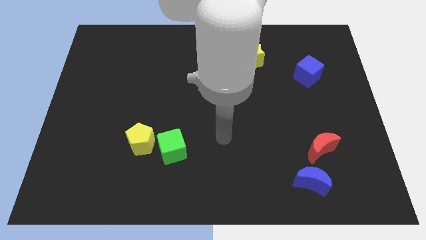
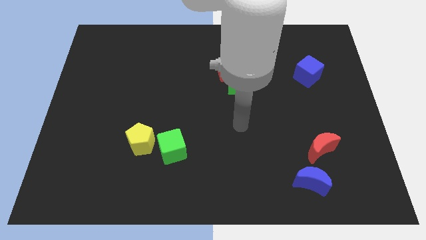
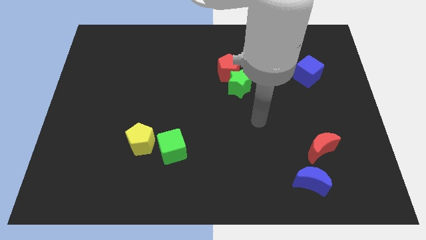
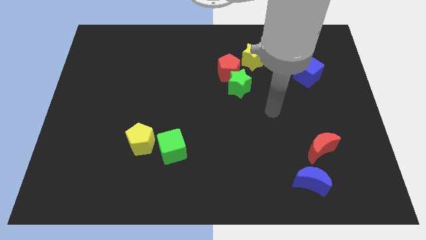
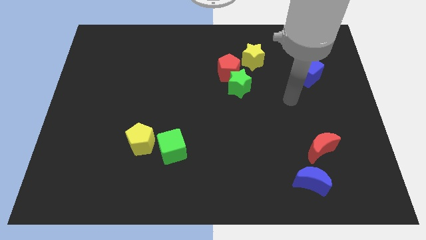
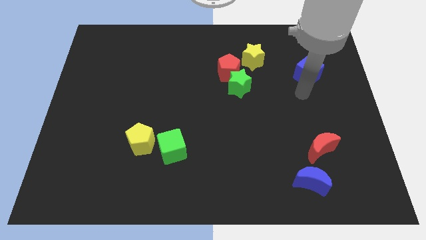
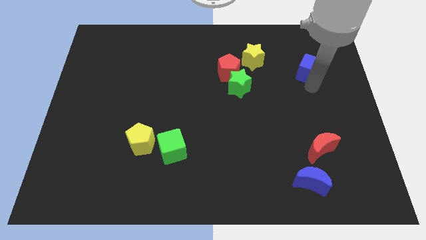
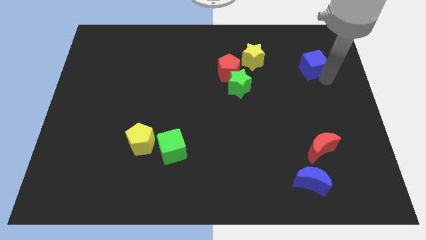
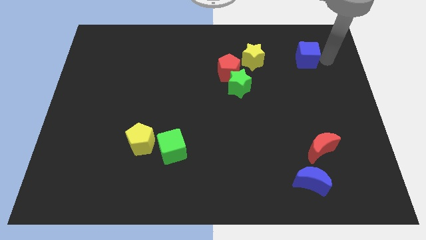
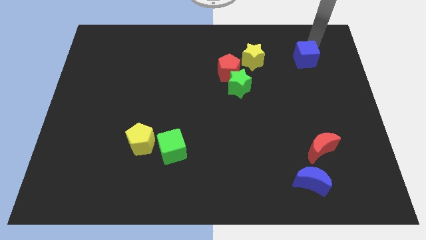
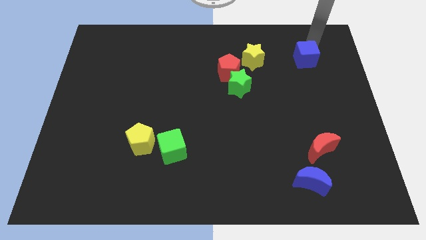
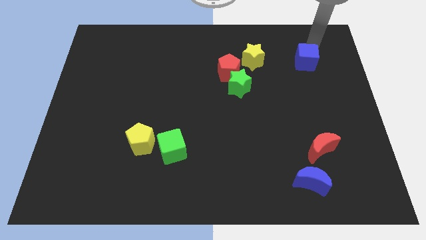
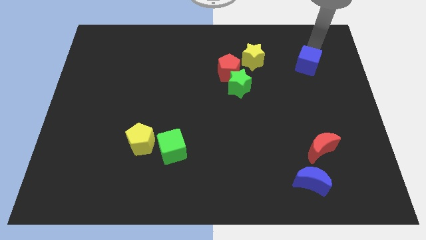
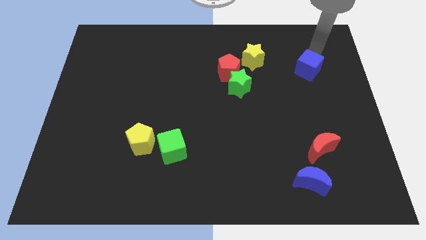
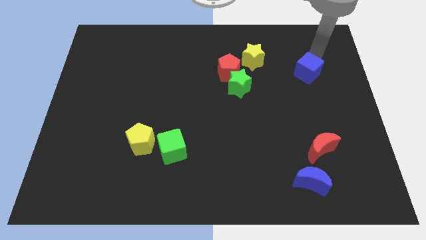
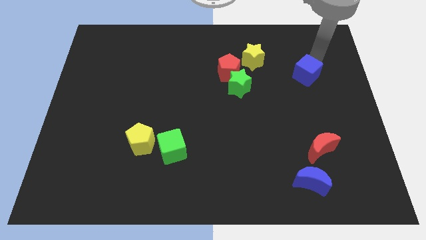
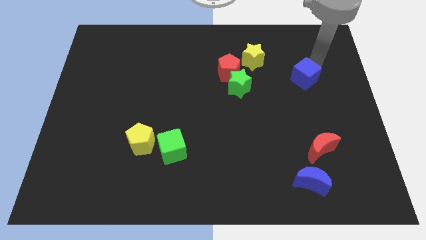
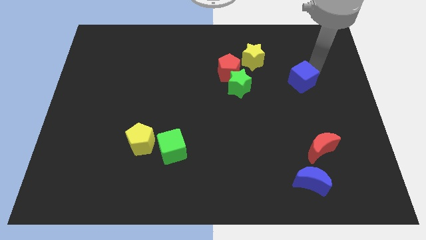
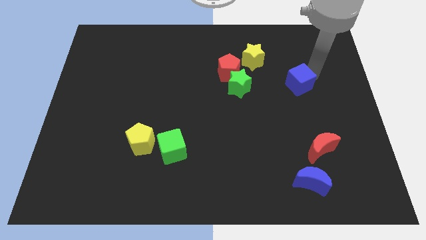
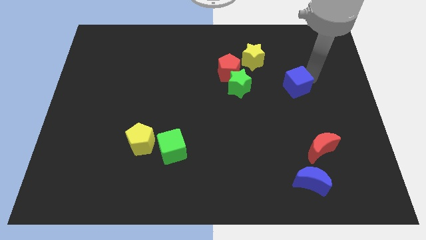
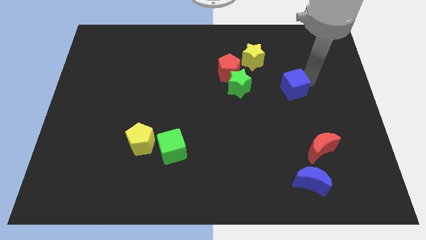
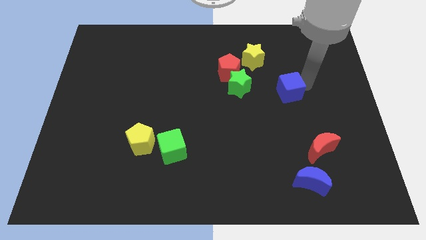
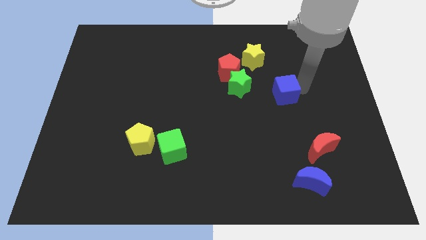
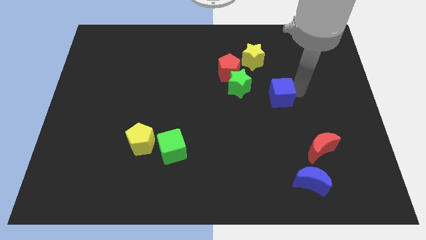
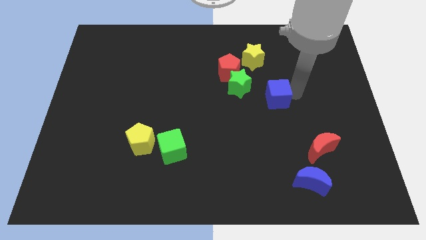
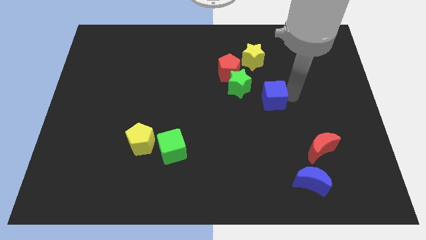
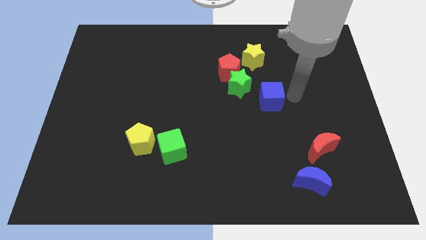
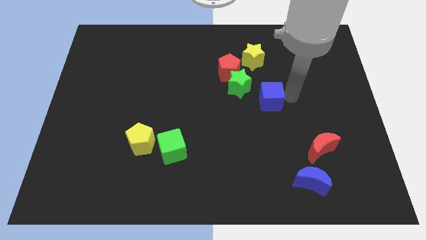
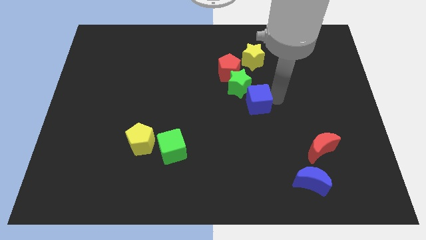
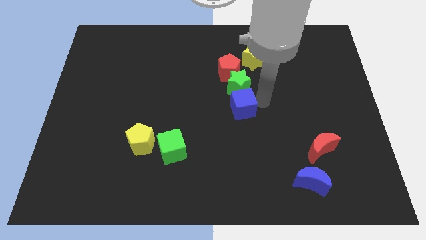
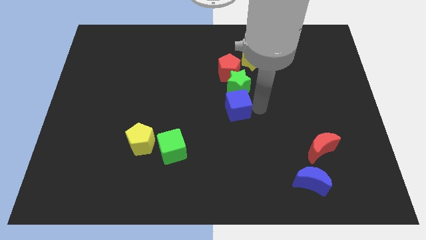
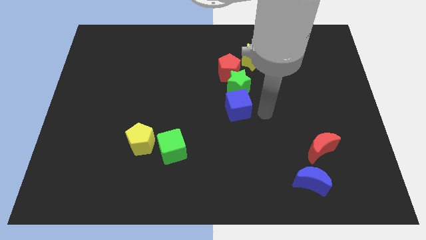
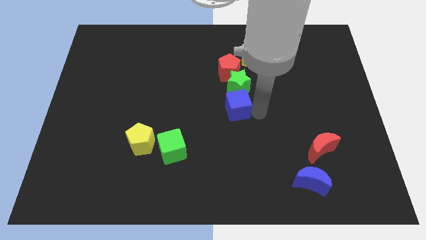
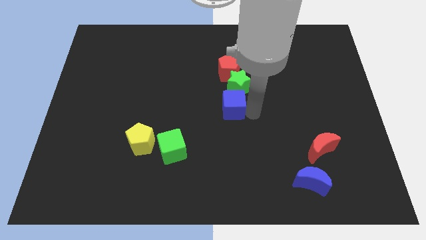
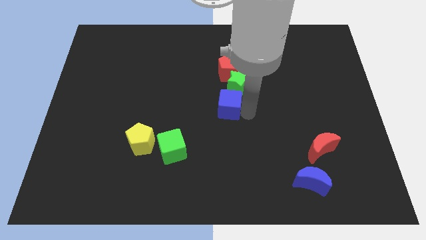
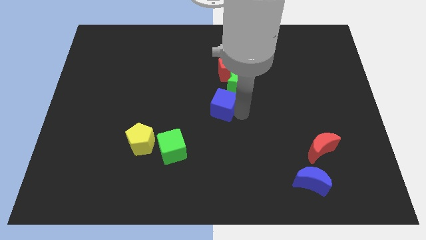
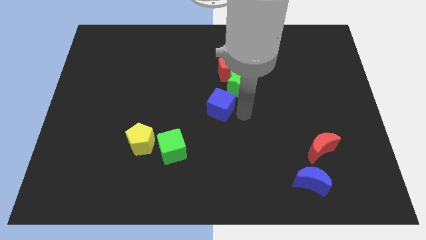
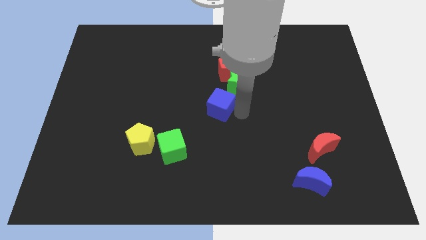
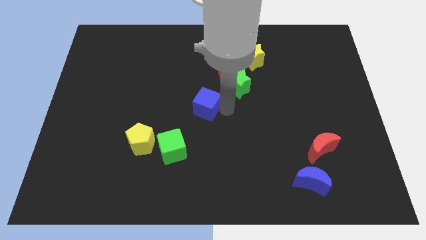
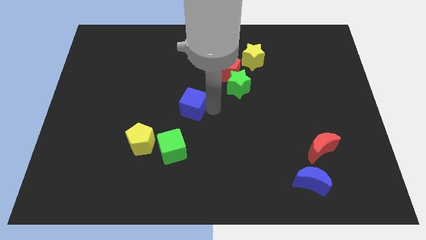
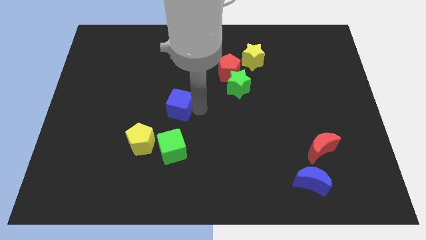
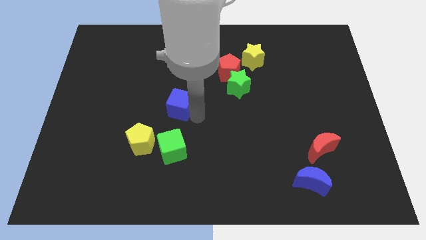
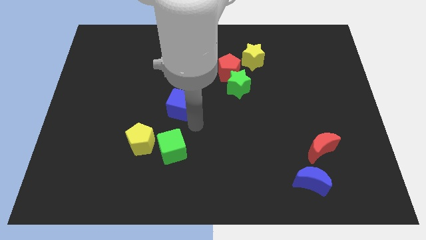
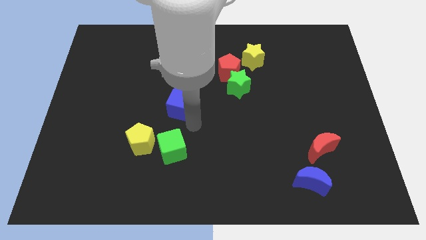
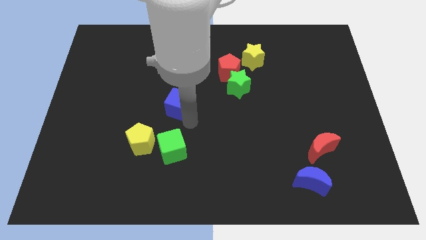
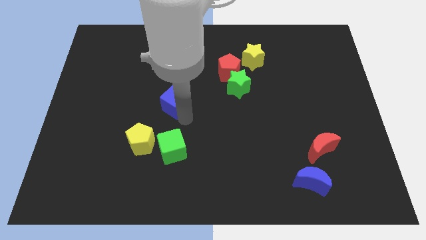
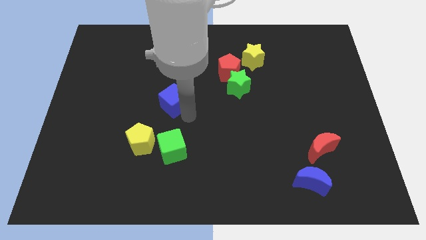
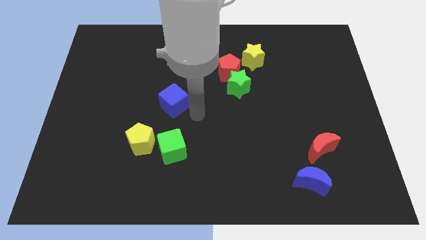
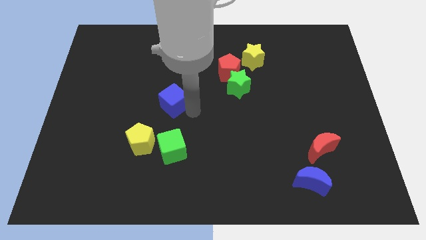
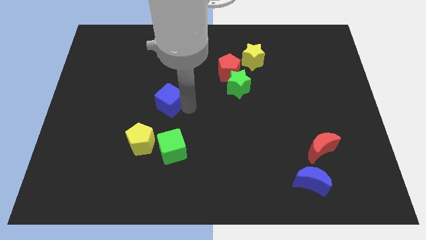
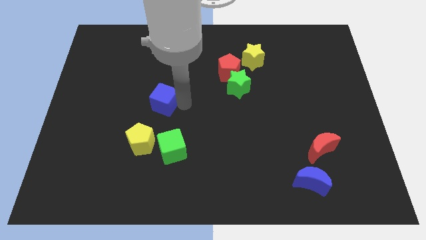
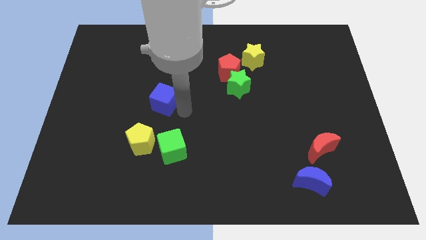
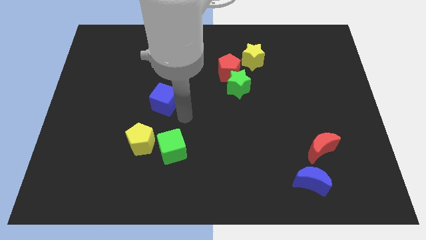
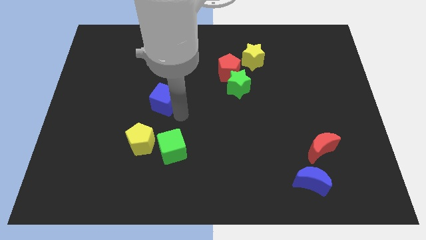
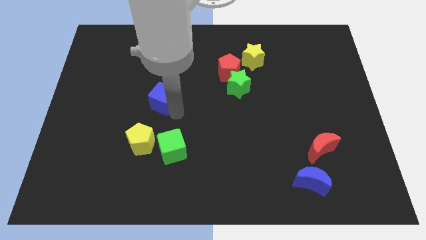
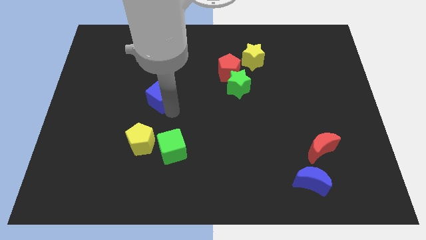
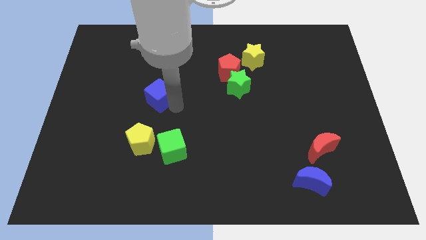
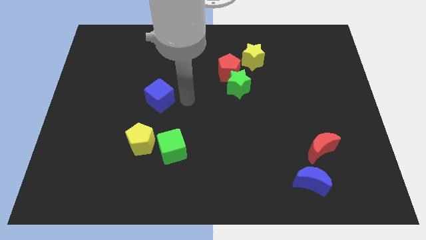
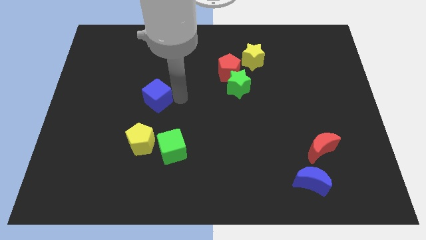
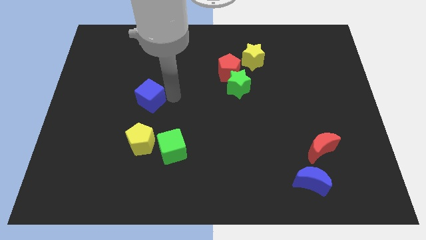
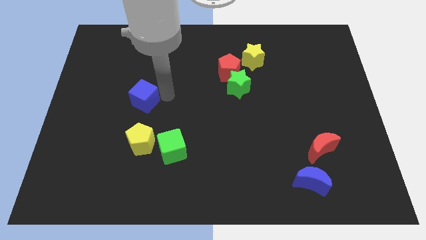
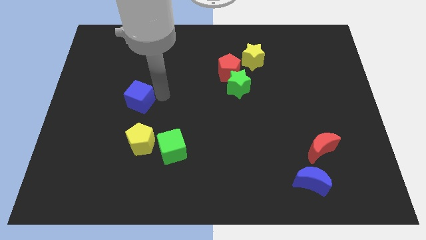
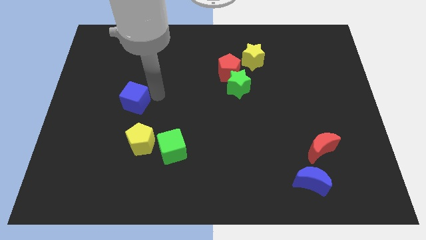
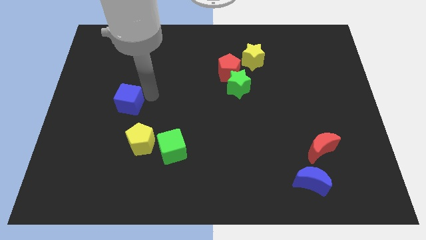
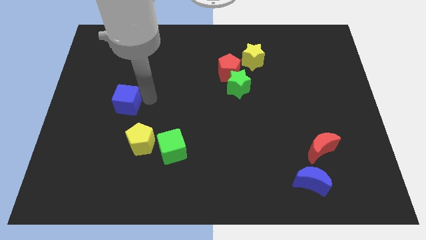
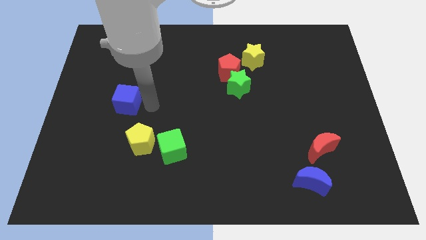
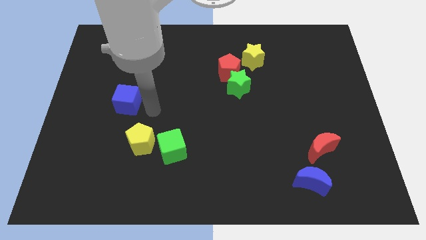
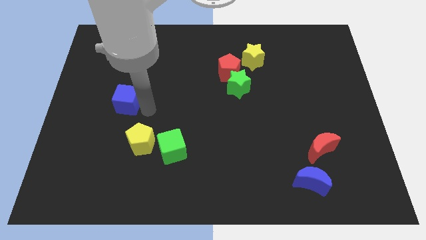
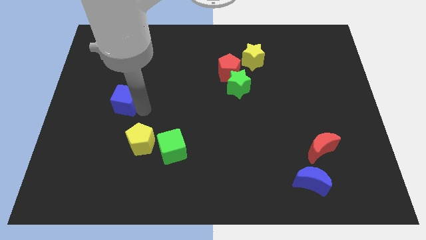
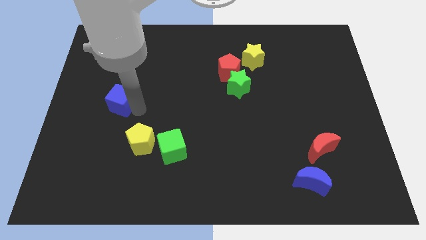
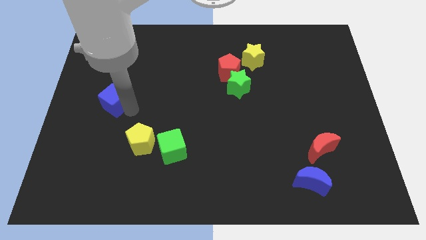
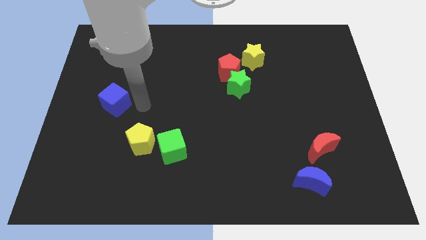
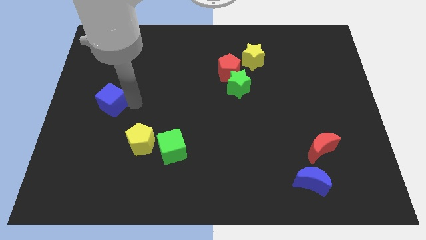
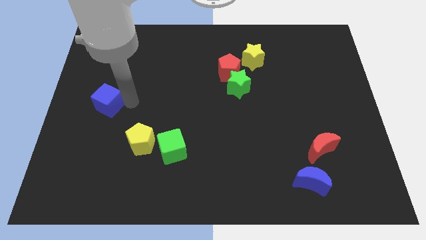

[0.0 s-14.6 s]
put the blue cube to the center left
